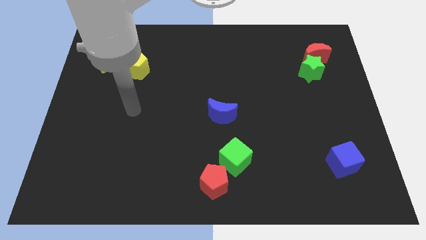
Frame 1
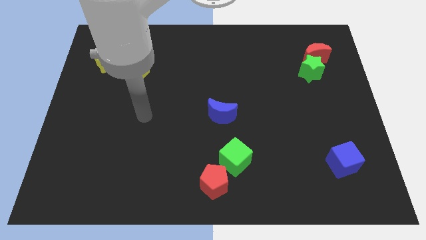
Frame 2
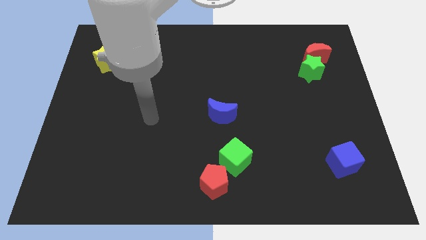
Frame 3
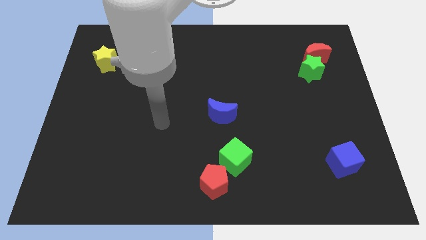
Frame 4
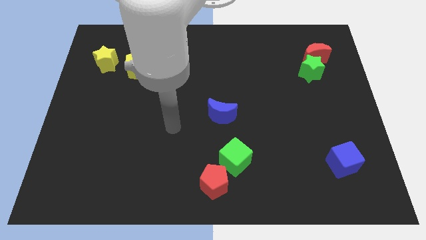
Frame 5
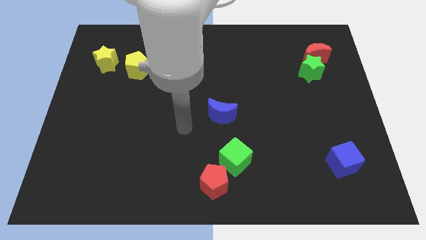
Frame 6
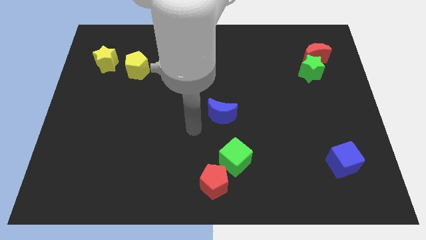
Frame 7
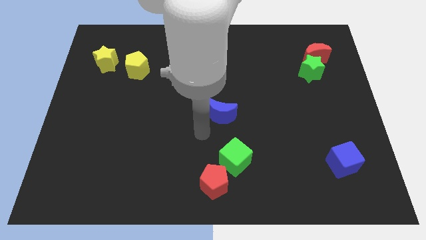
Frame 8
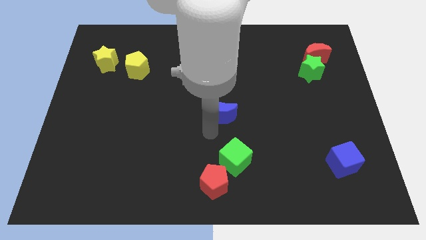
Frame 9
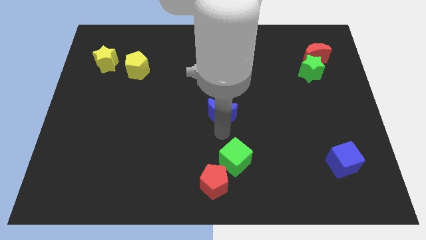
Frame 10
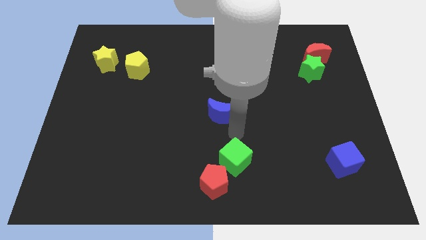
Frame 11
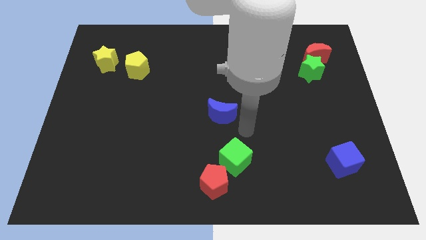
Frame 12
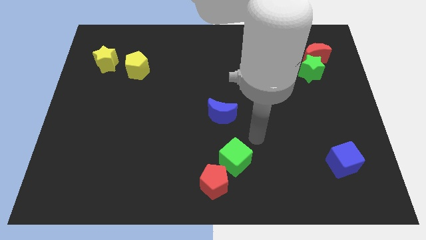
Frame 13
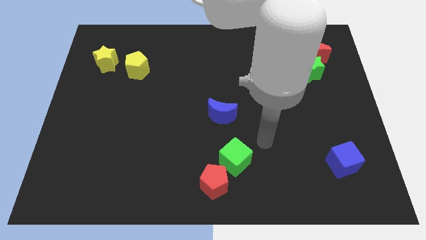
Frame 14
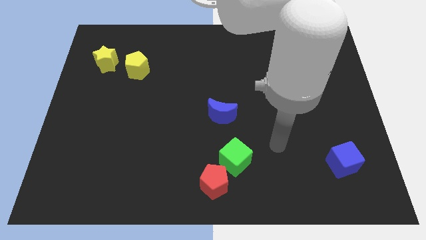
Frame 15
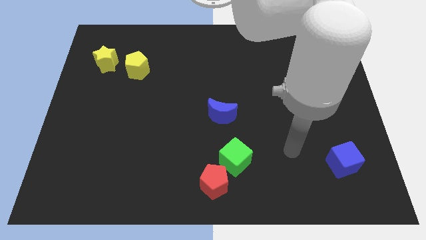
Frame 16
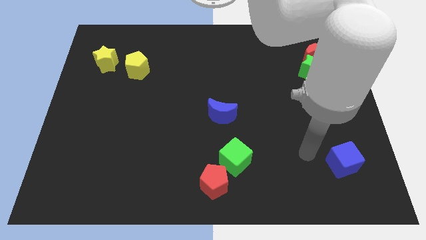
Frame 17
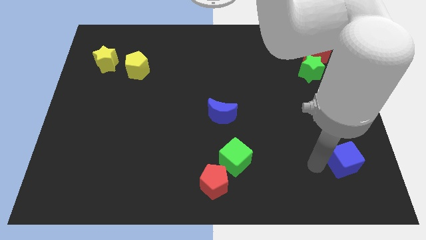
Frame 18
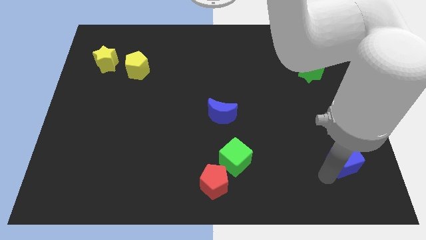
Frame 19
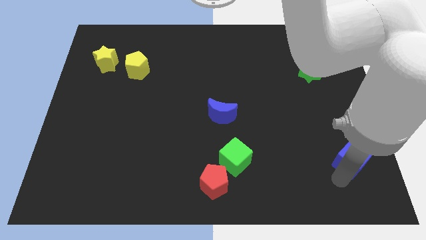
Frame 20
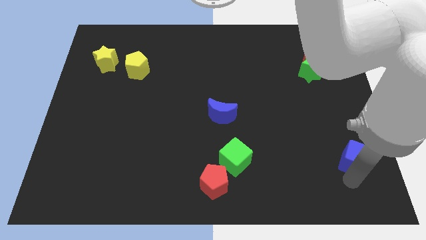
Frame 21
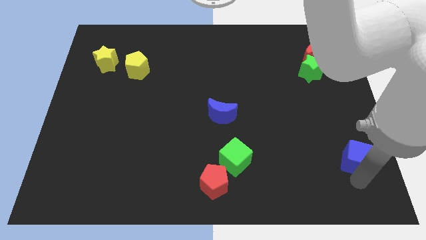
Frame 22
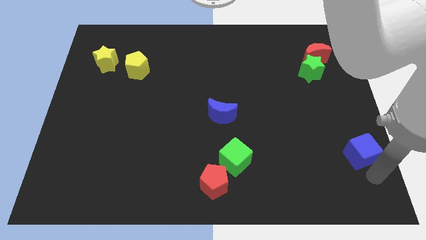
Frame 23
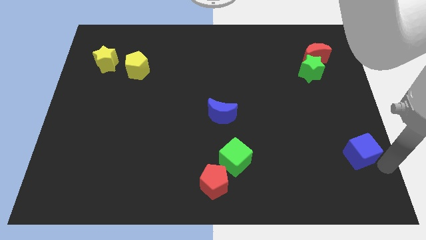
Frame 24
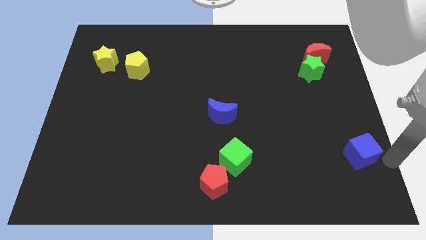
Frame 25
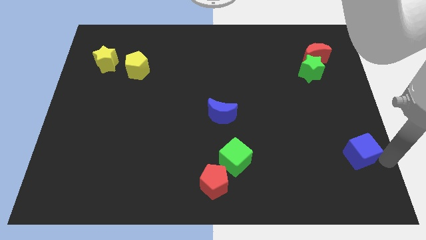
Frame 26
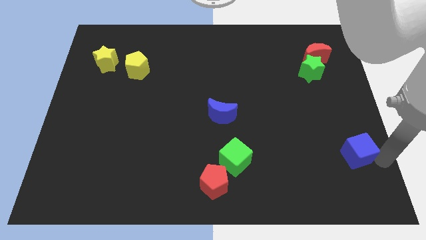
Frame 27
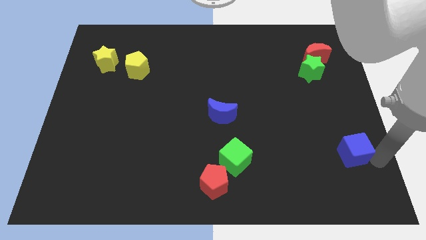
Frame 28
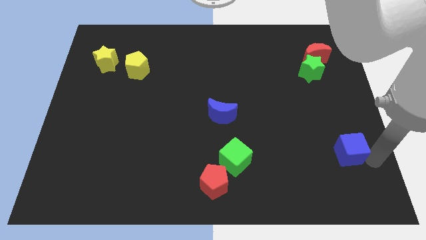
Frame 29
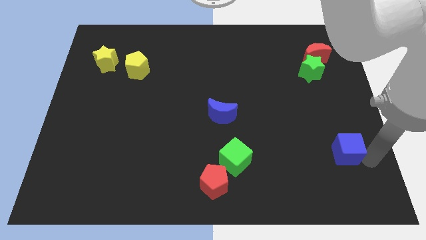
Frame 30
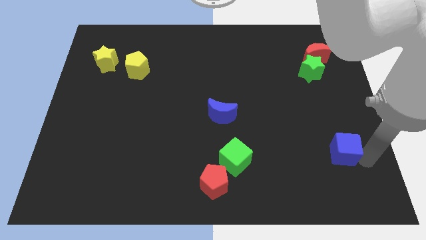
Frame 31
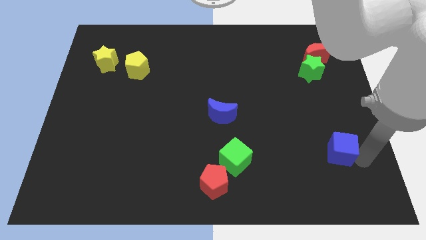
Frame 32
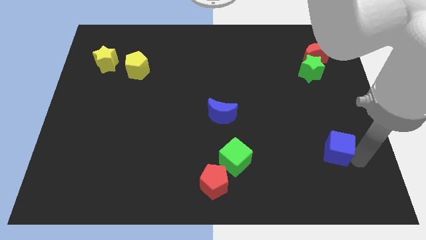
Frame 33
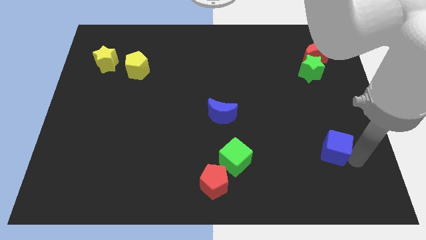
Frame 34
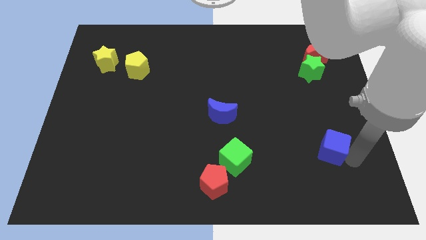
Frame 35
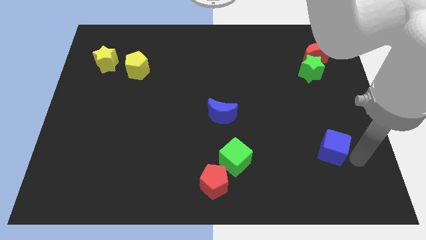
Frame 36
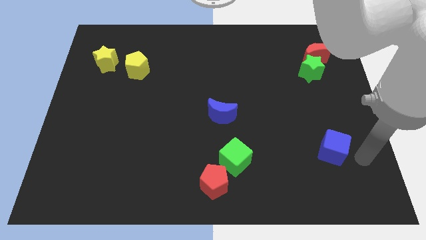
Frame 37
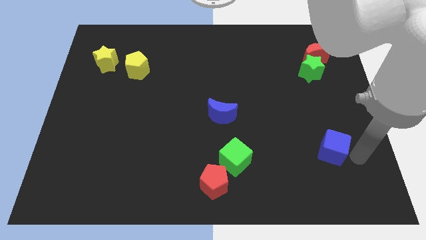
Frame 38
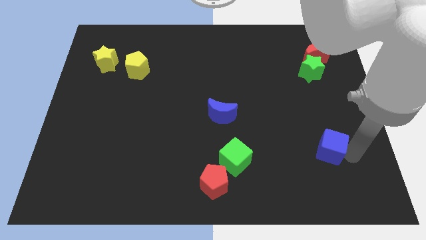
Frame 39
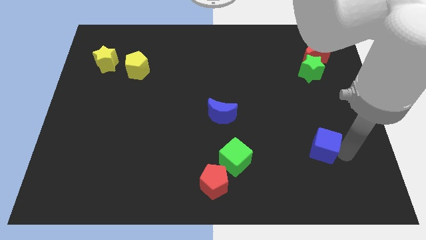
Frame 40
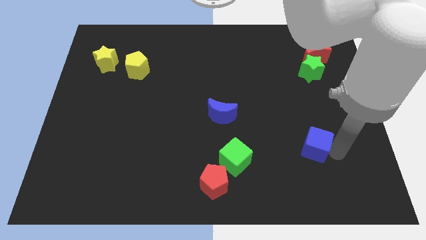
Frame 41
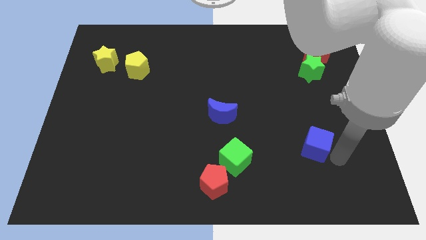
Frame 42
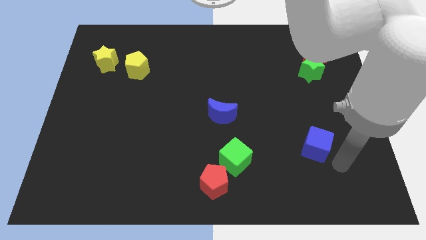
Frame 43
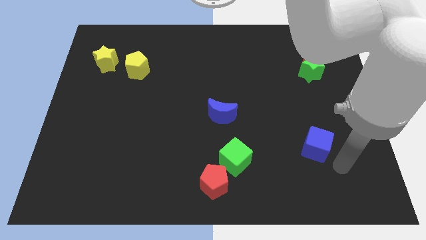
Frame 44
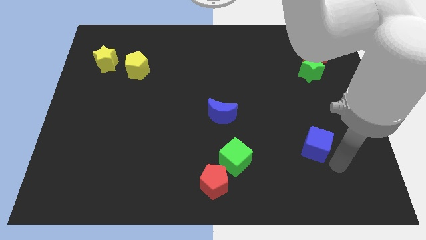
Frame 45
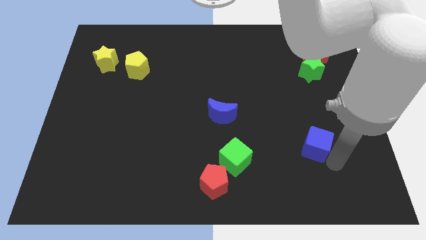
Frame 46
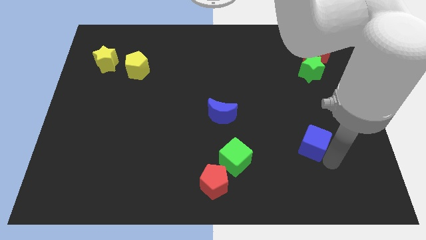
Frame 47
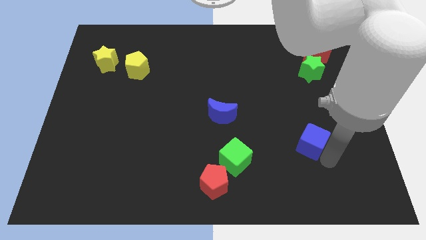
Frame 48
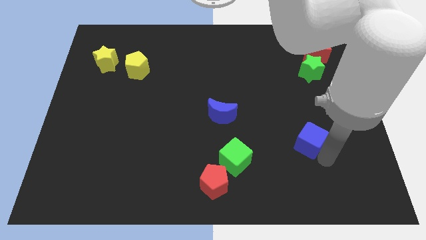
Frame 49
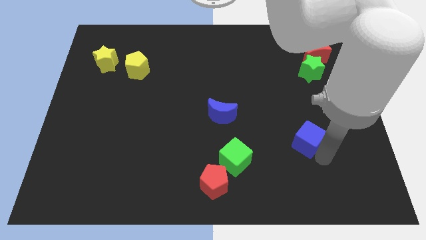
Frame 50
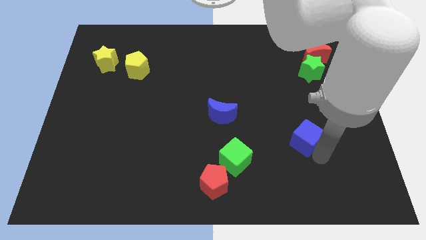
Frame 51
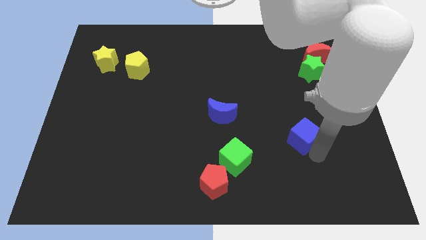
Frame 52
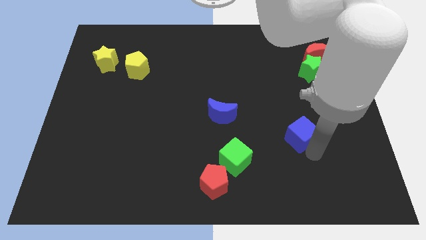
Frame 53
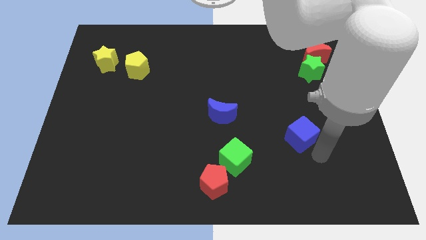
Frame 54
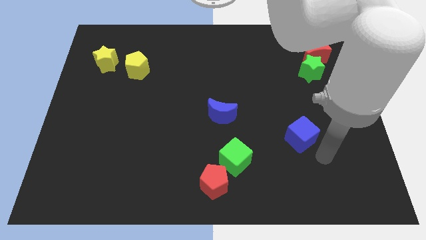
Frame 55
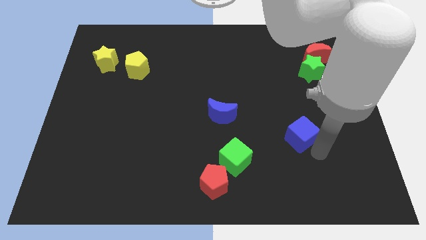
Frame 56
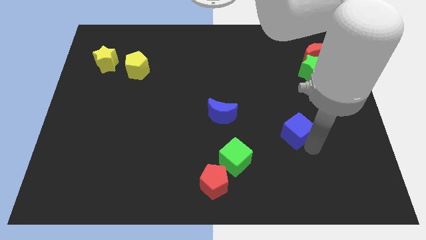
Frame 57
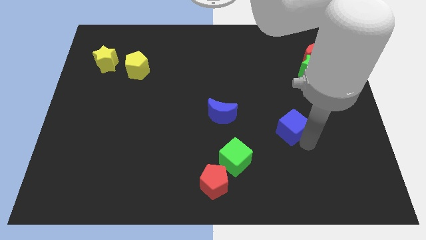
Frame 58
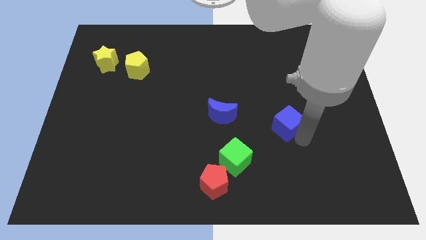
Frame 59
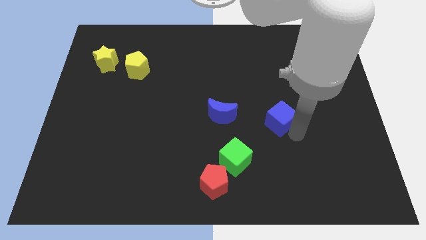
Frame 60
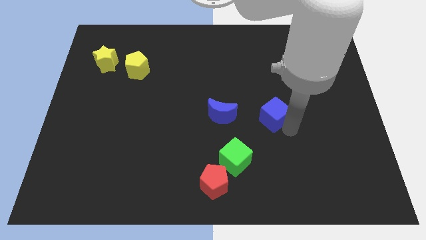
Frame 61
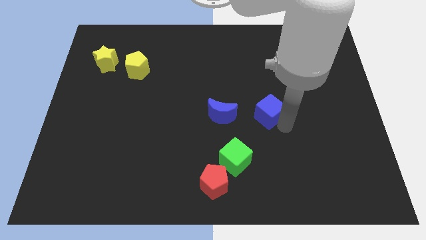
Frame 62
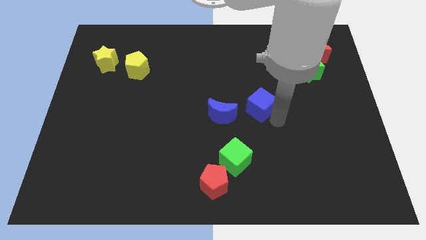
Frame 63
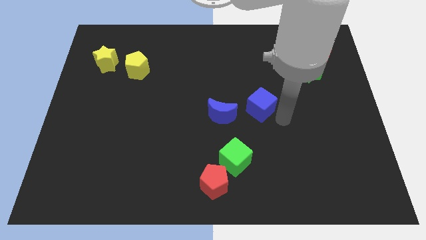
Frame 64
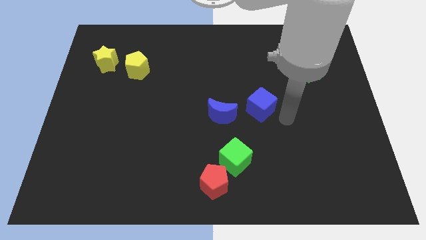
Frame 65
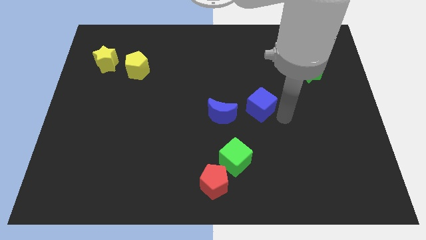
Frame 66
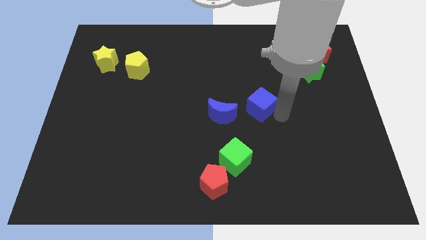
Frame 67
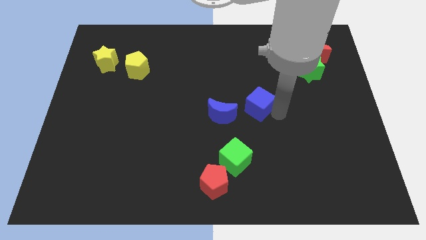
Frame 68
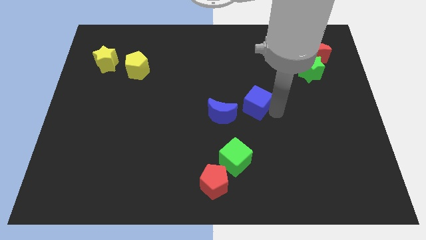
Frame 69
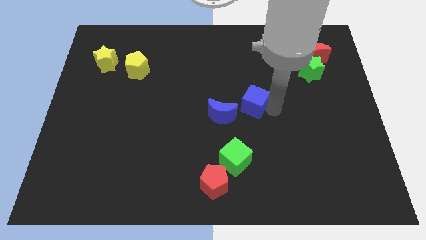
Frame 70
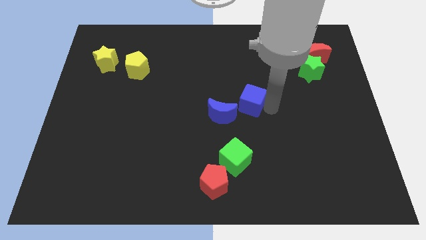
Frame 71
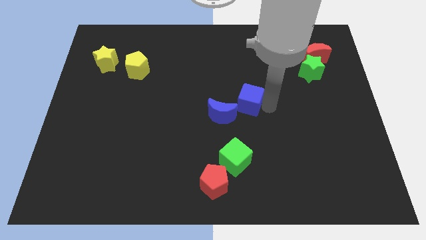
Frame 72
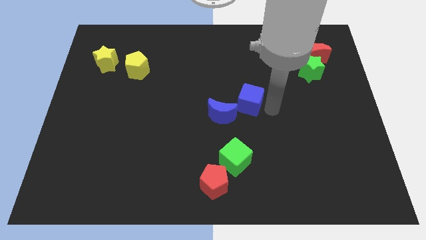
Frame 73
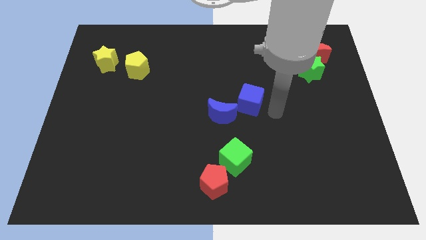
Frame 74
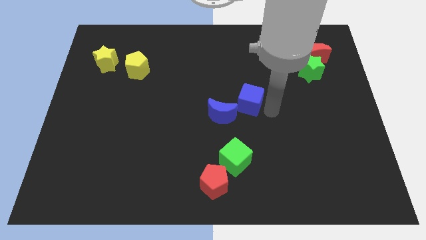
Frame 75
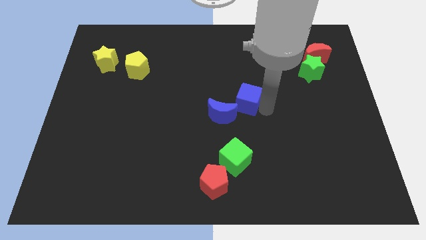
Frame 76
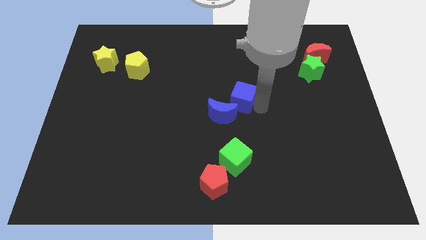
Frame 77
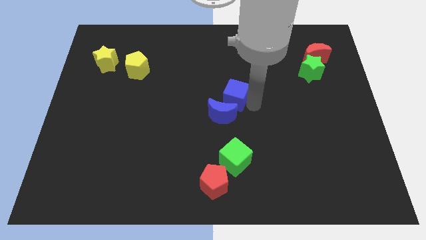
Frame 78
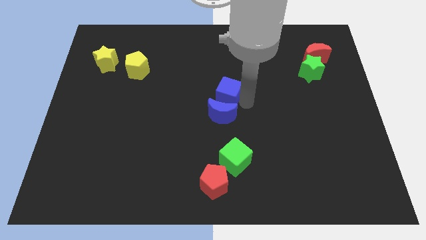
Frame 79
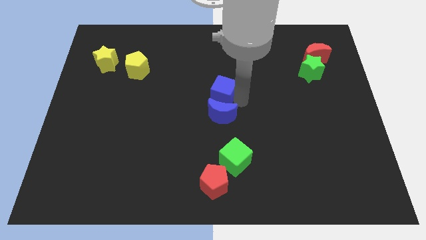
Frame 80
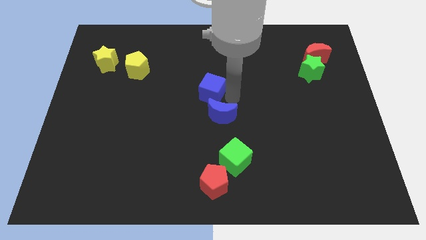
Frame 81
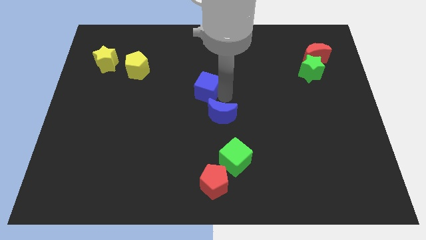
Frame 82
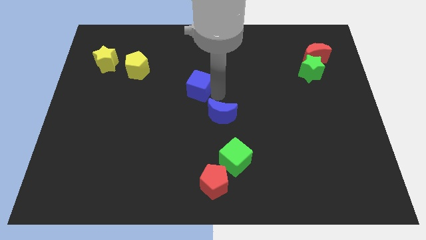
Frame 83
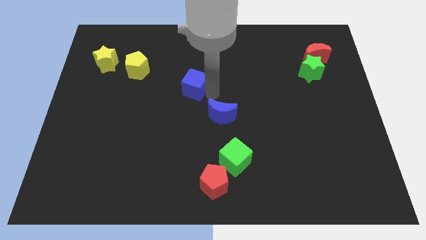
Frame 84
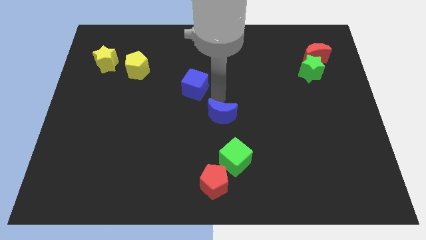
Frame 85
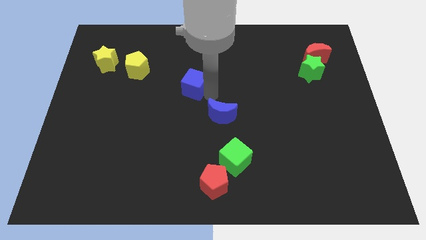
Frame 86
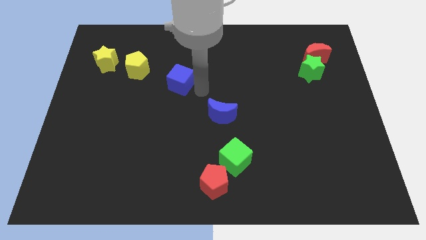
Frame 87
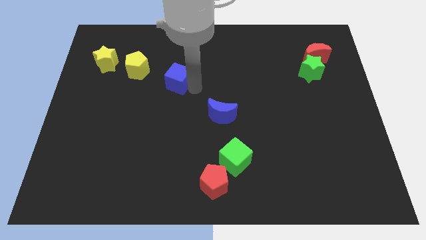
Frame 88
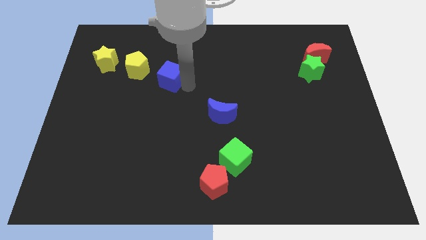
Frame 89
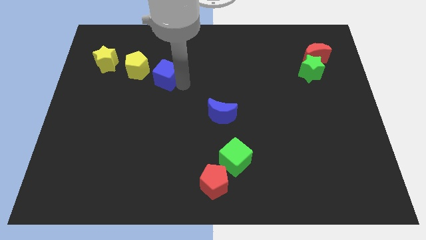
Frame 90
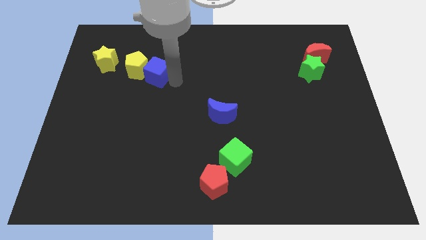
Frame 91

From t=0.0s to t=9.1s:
push the blue cube to the yellow pentagon
